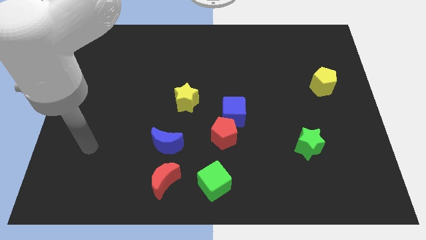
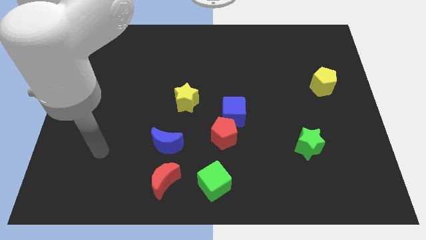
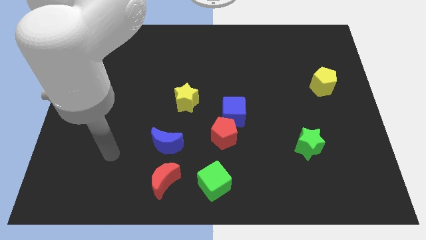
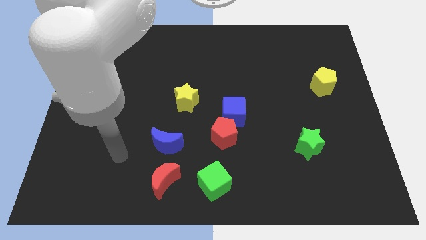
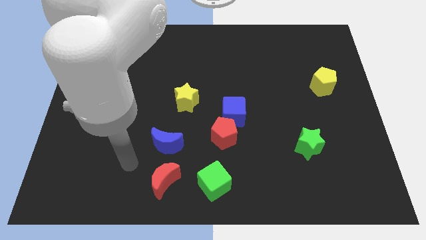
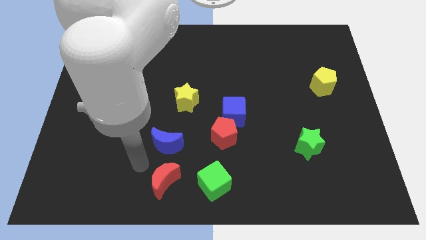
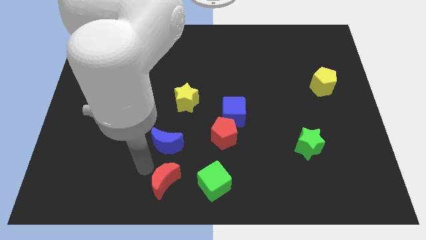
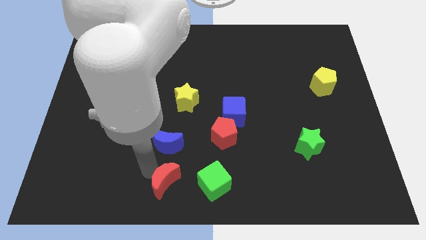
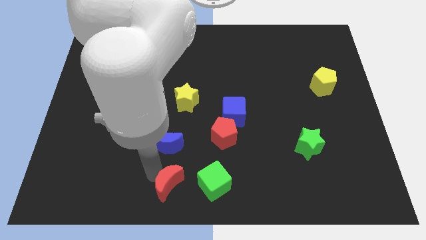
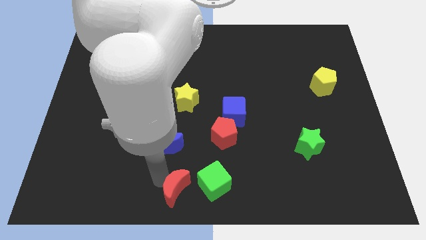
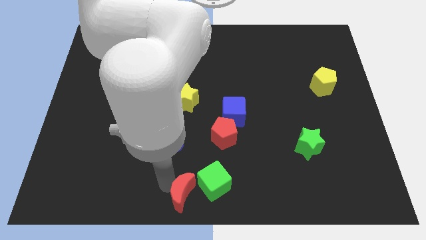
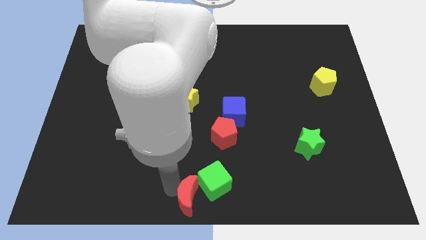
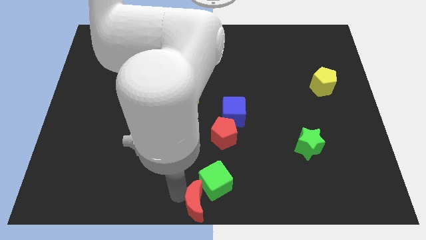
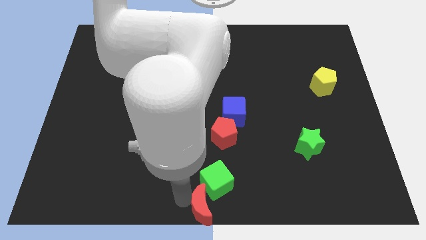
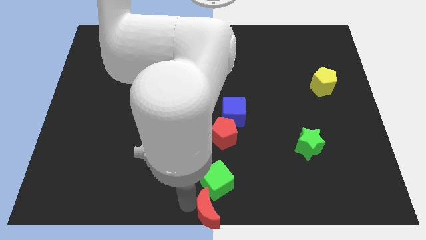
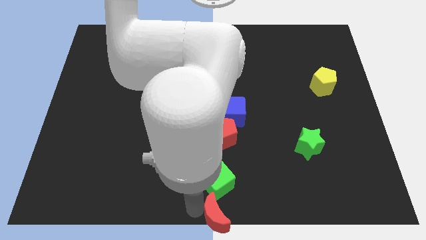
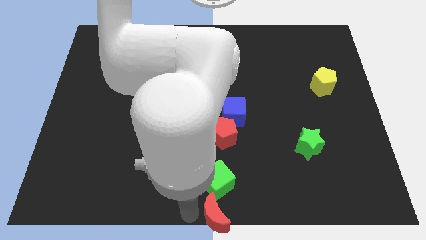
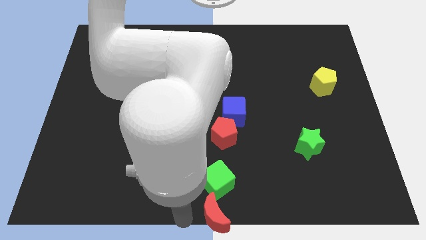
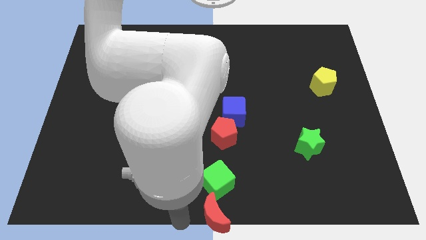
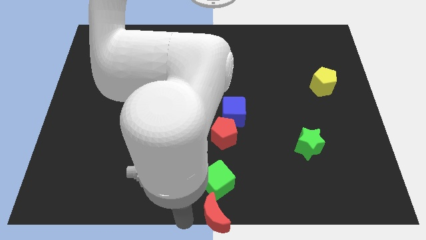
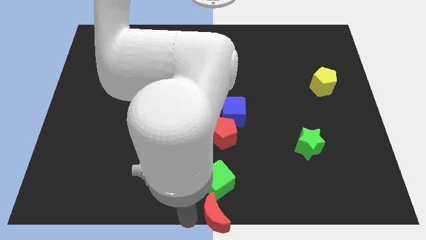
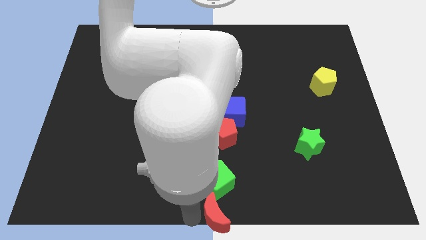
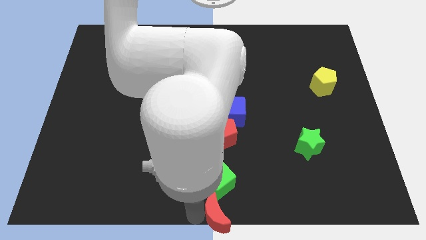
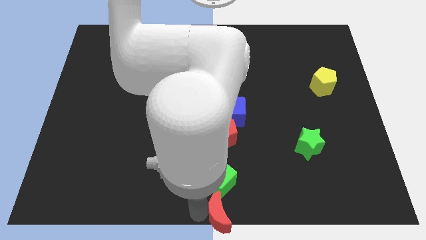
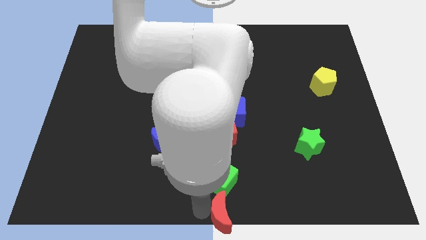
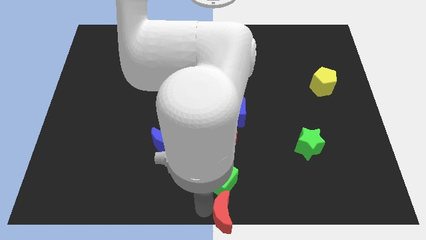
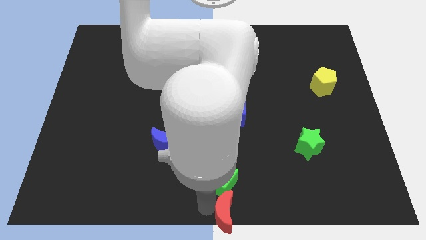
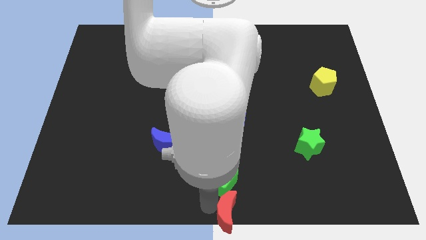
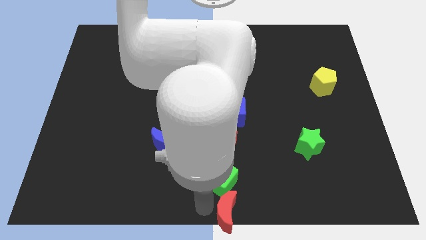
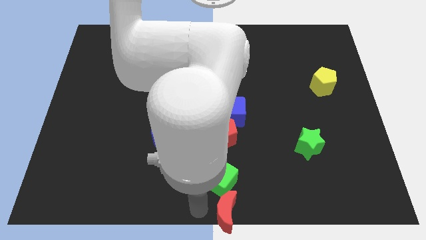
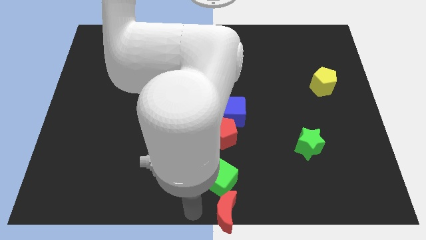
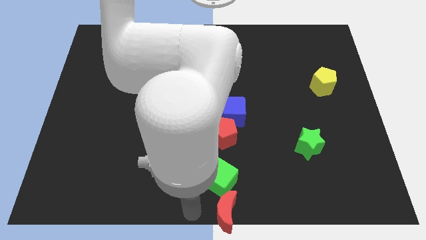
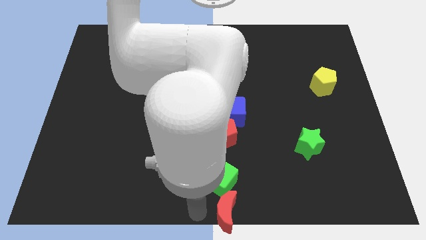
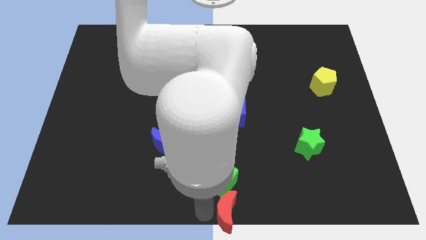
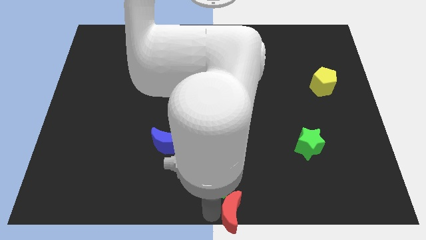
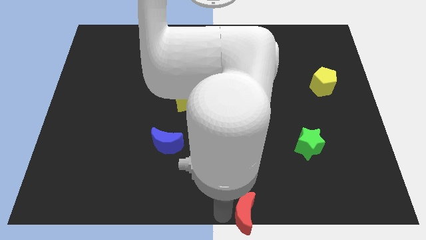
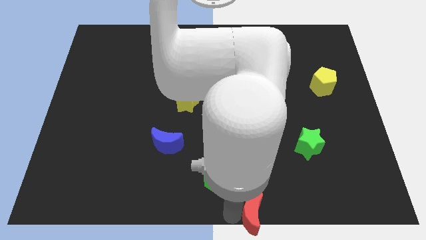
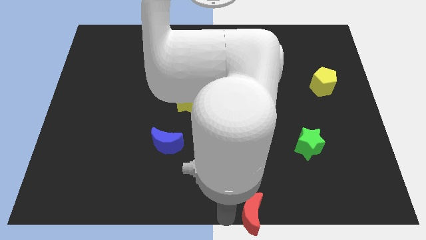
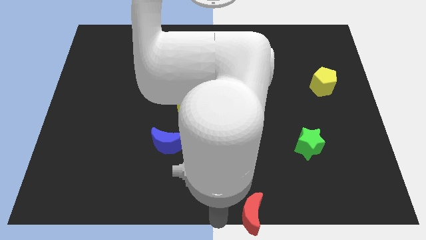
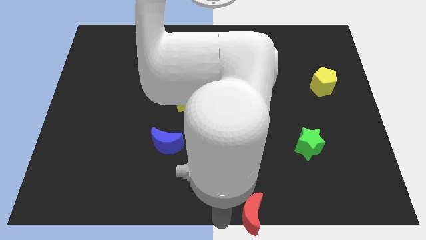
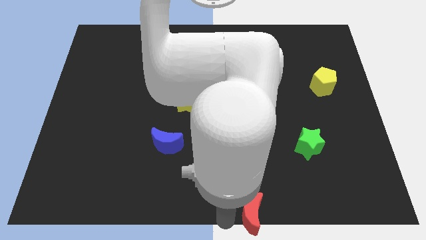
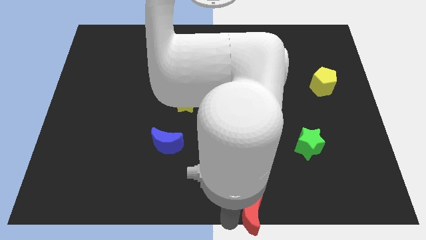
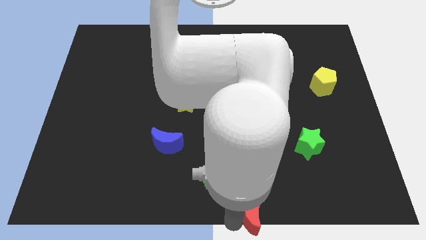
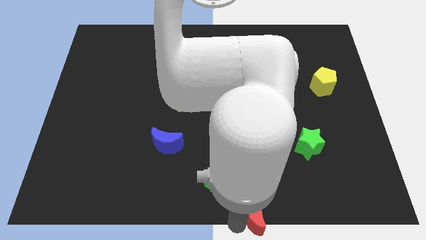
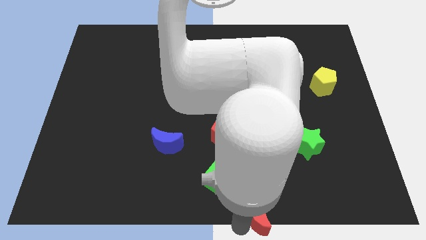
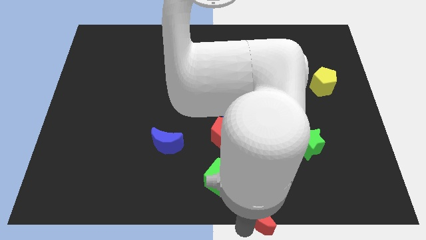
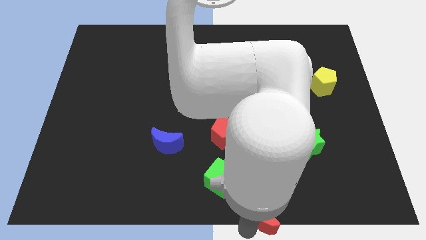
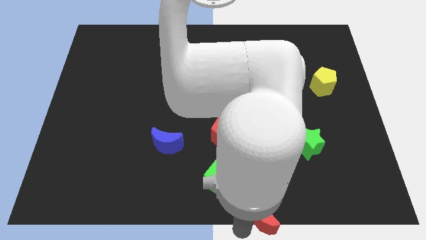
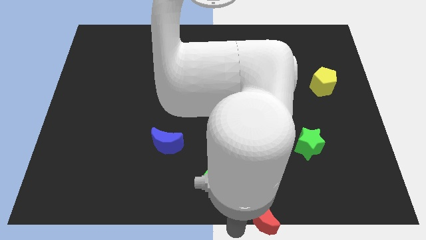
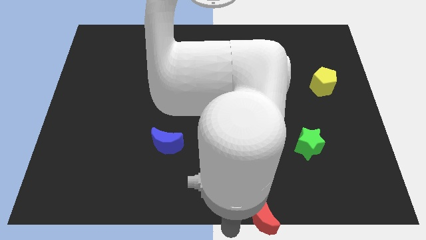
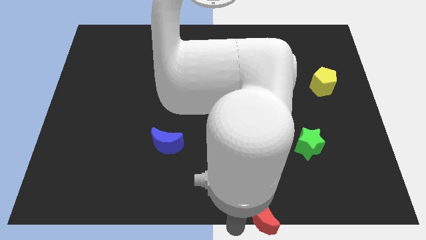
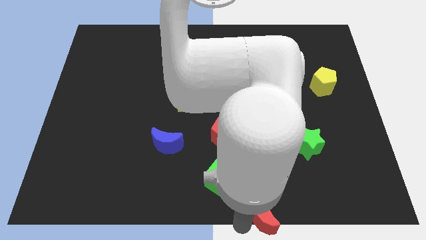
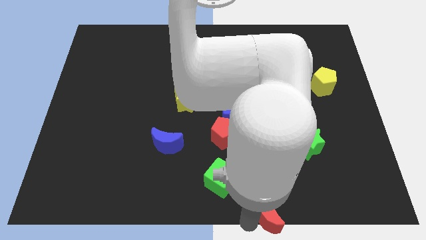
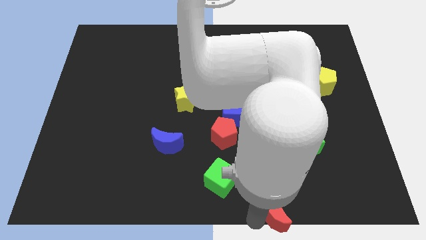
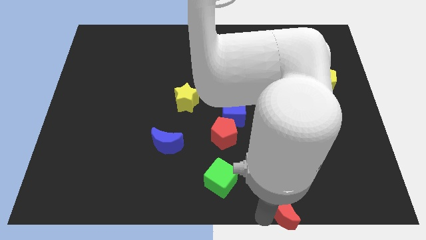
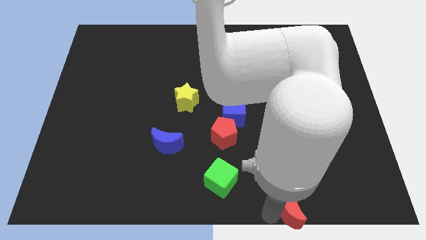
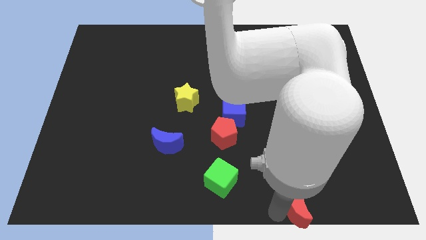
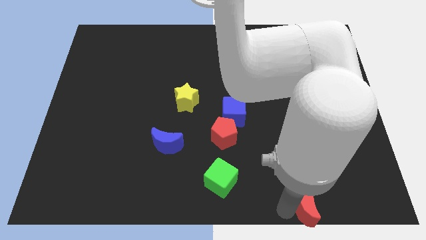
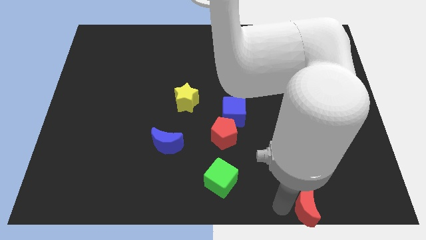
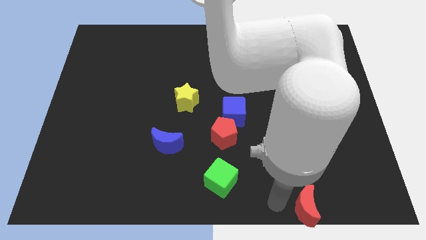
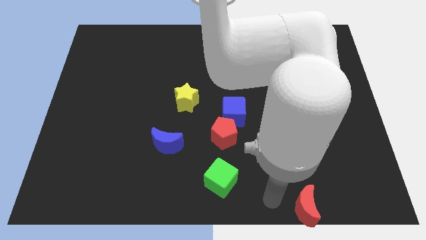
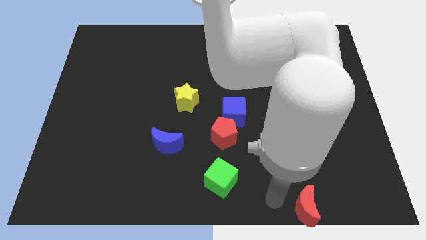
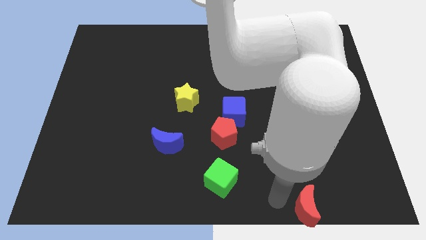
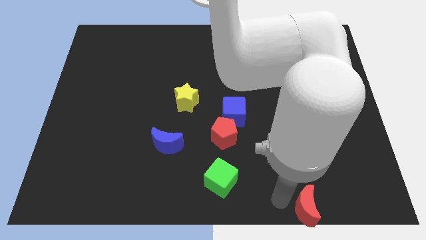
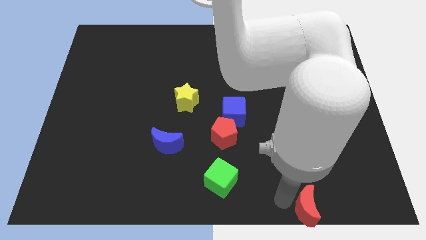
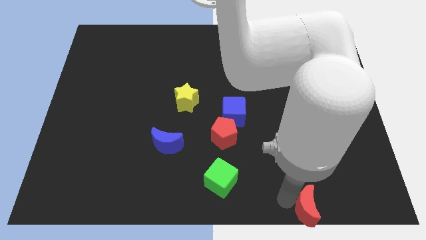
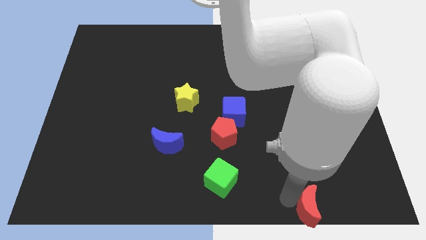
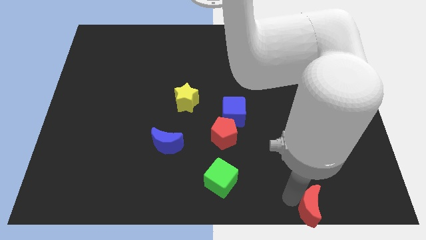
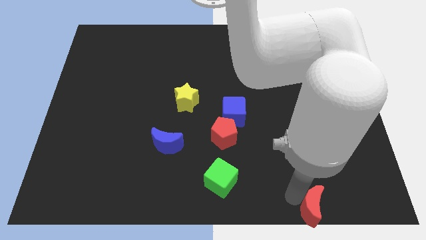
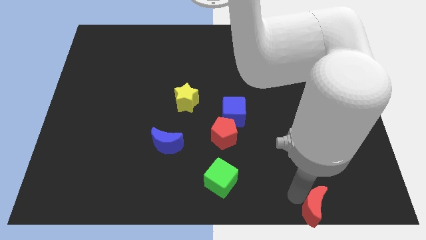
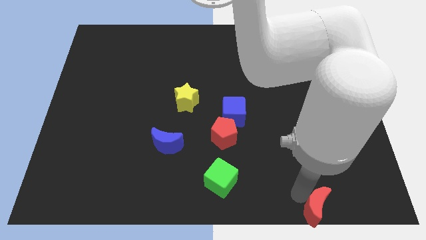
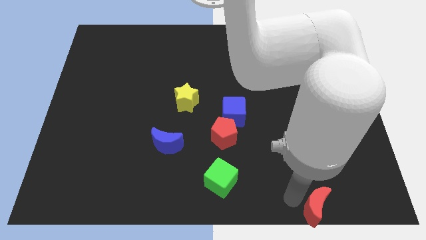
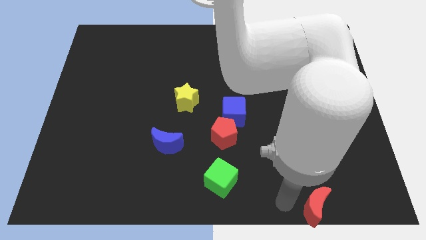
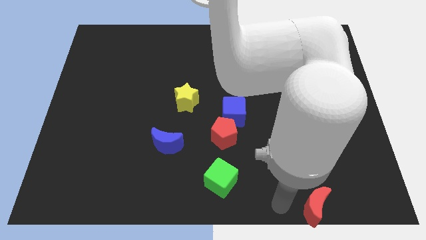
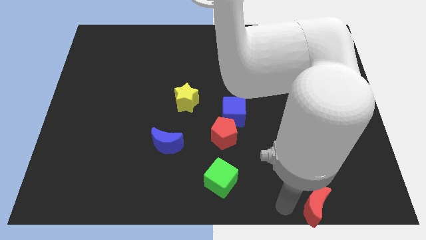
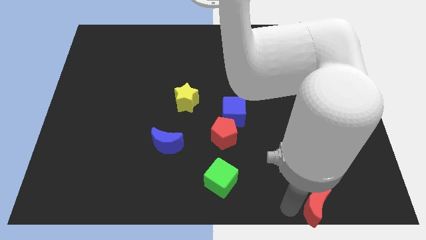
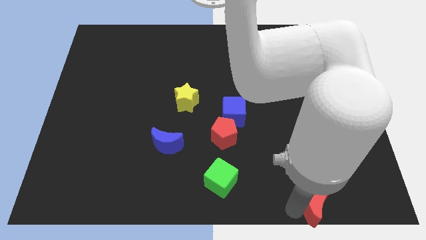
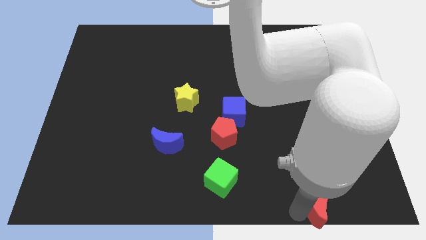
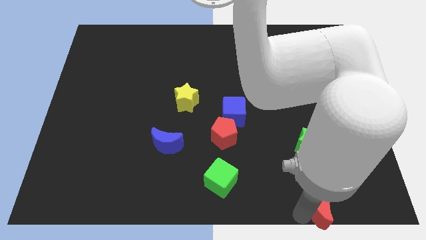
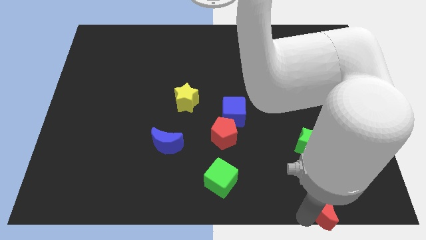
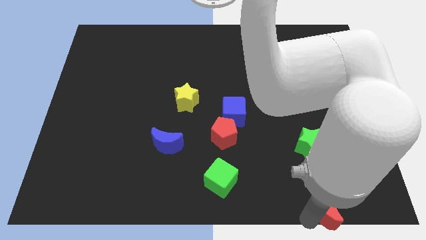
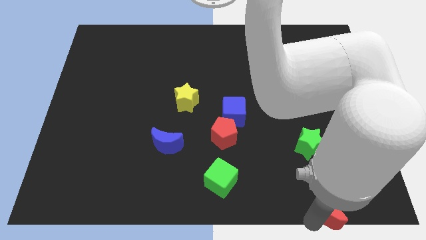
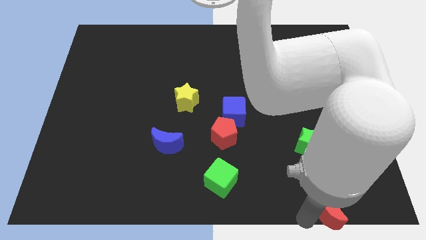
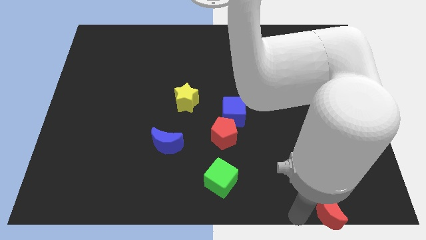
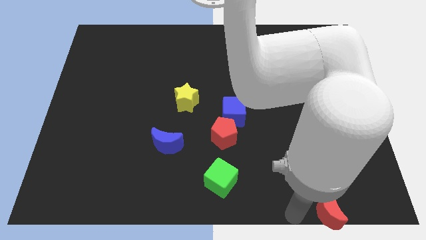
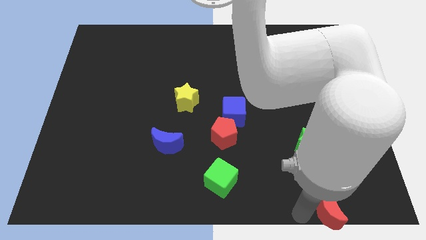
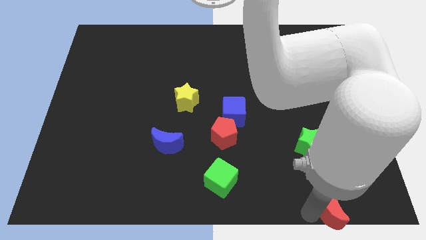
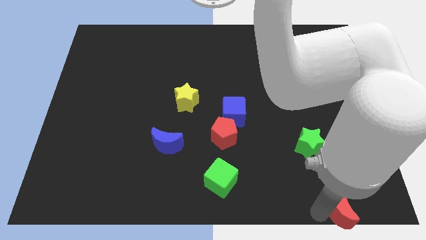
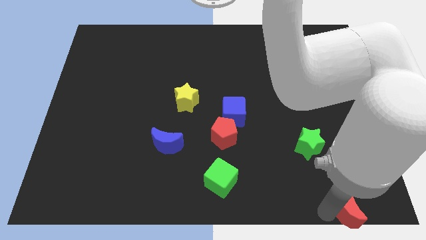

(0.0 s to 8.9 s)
push the red moon to the lower right corner
